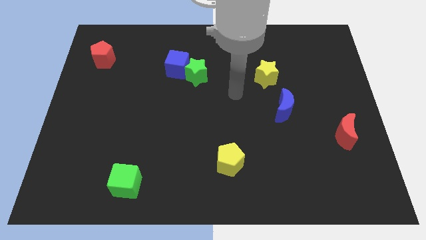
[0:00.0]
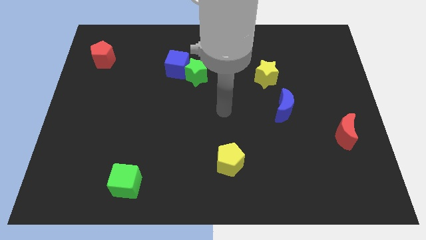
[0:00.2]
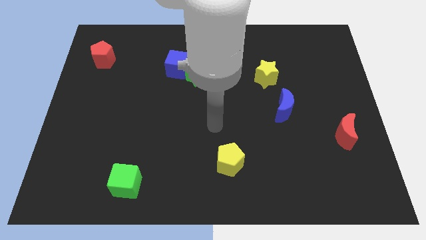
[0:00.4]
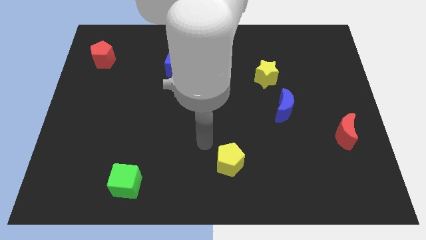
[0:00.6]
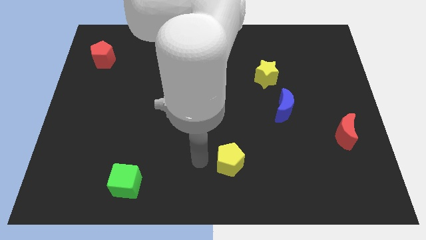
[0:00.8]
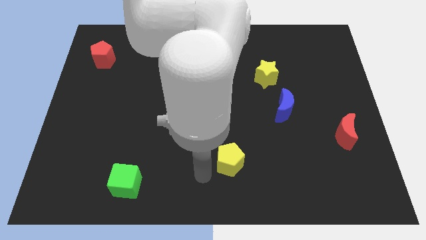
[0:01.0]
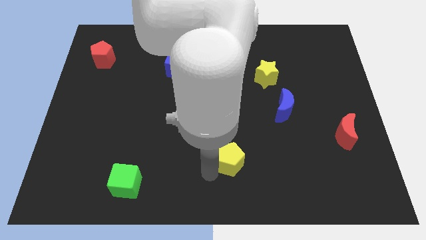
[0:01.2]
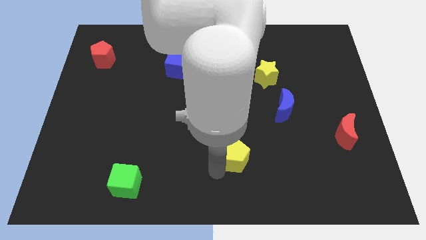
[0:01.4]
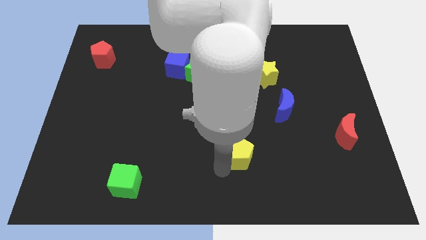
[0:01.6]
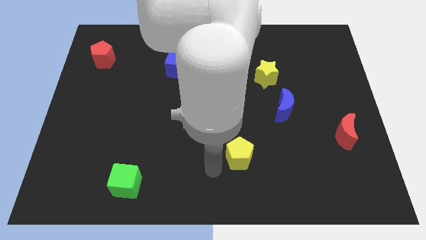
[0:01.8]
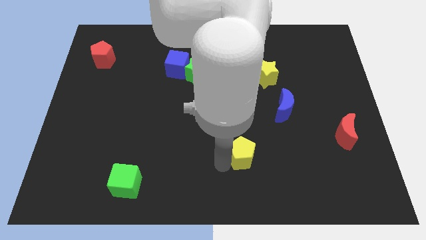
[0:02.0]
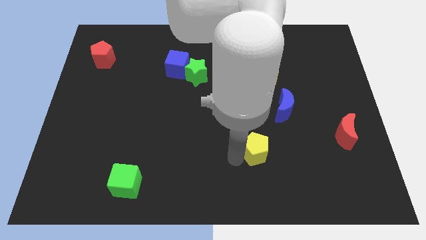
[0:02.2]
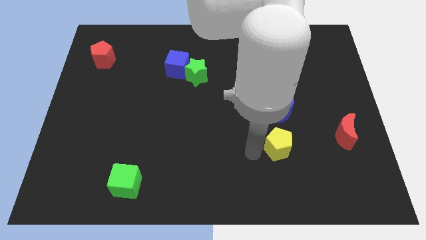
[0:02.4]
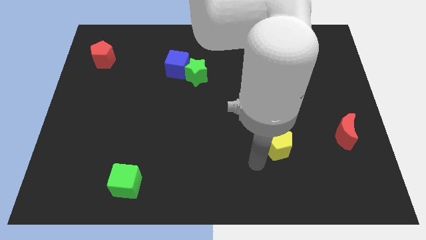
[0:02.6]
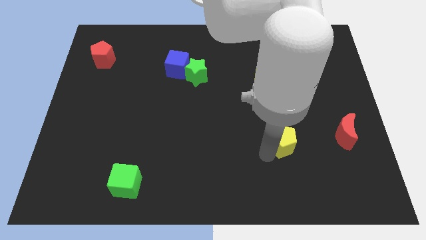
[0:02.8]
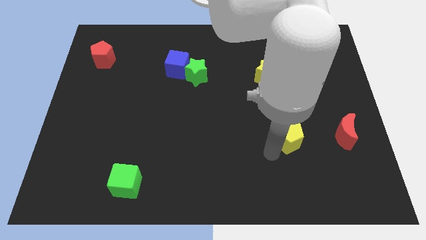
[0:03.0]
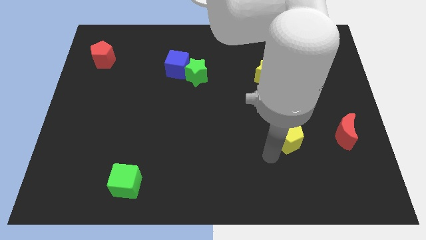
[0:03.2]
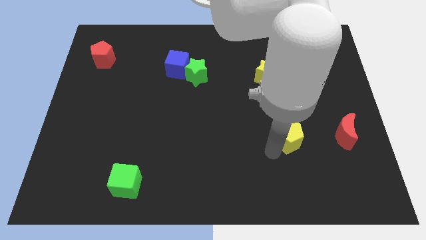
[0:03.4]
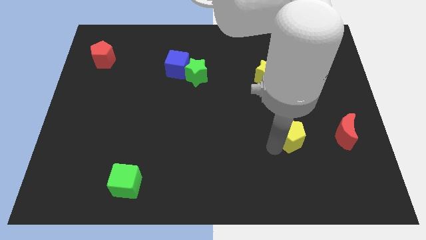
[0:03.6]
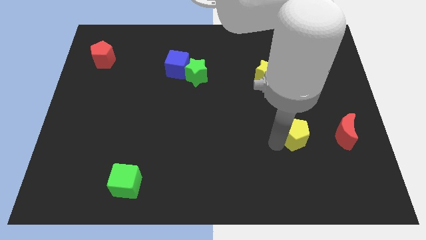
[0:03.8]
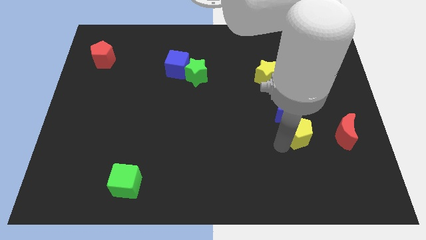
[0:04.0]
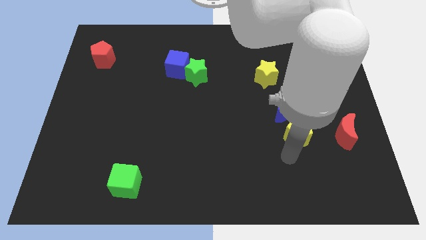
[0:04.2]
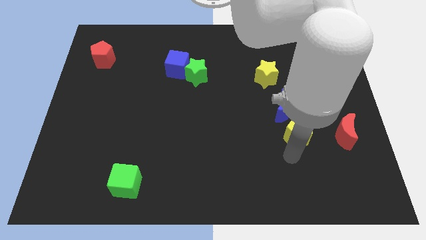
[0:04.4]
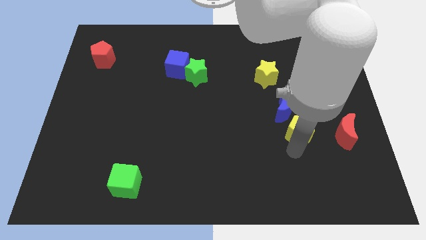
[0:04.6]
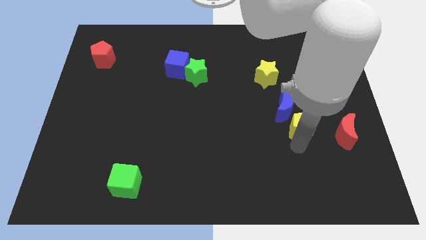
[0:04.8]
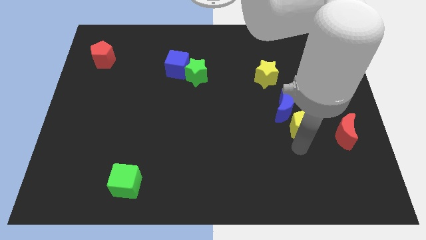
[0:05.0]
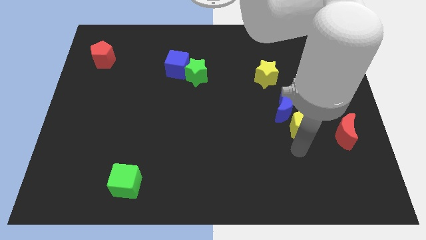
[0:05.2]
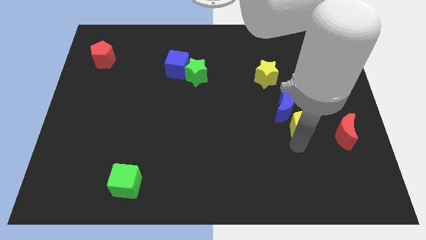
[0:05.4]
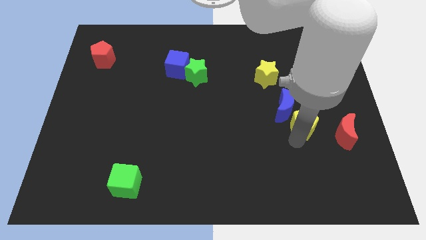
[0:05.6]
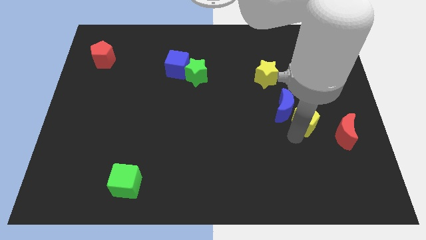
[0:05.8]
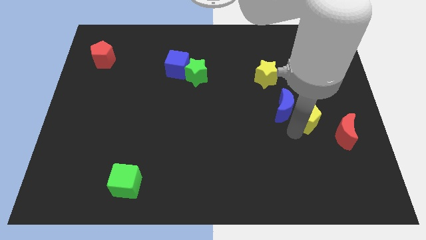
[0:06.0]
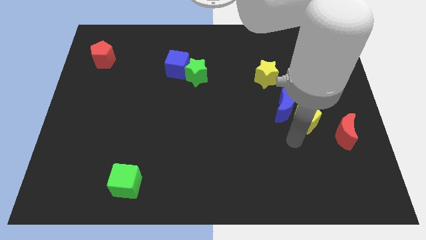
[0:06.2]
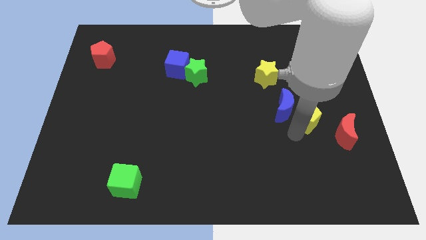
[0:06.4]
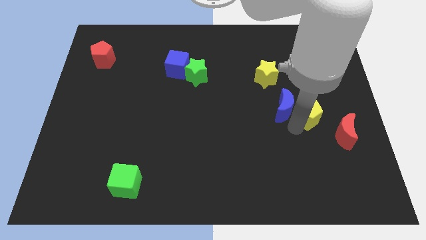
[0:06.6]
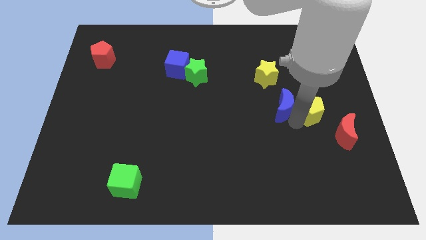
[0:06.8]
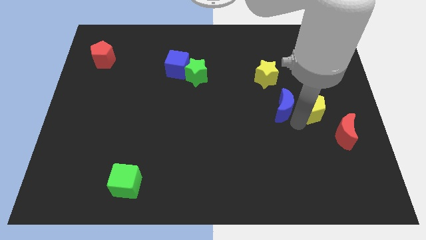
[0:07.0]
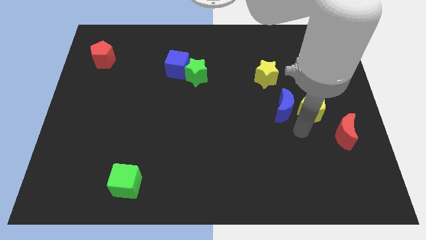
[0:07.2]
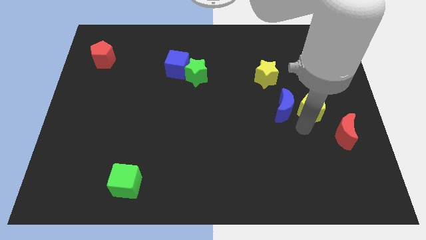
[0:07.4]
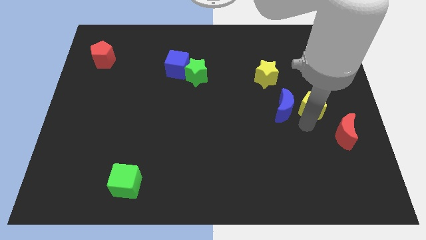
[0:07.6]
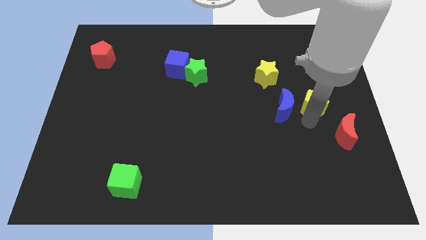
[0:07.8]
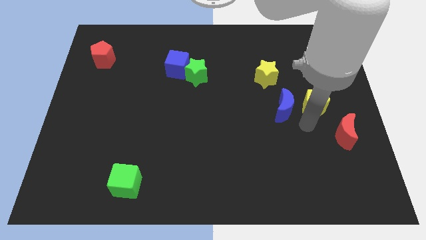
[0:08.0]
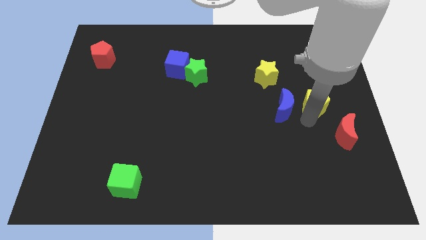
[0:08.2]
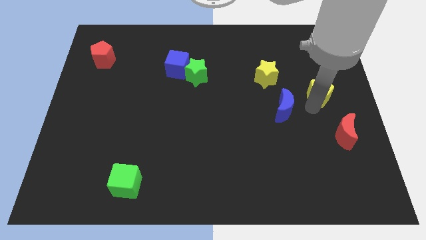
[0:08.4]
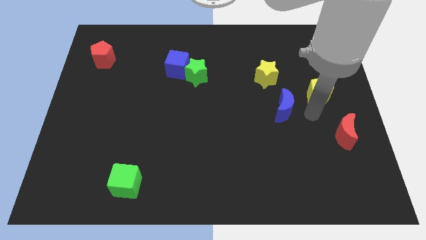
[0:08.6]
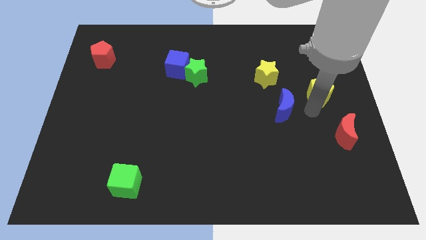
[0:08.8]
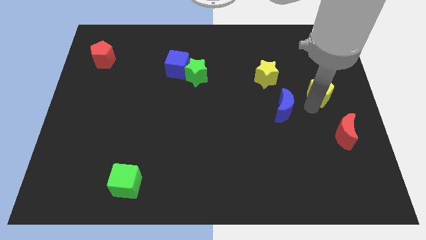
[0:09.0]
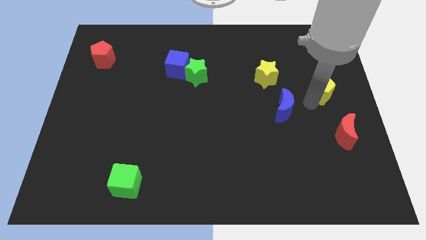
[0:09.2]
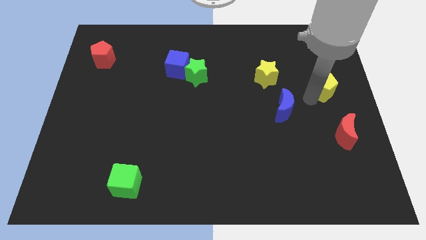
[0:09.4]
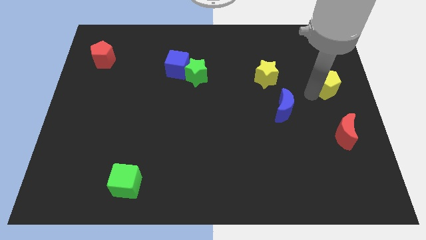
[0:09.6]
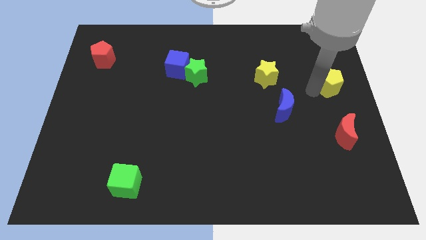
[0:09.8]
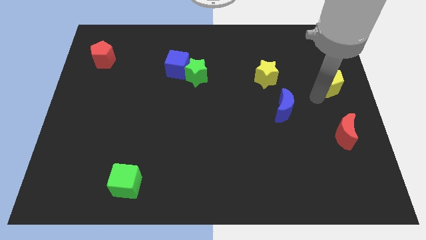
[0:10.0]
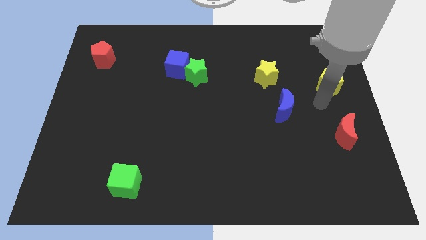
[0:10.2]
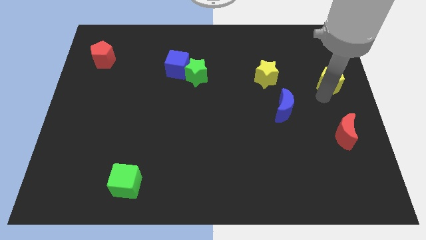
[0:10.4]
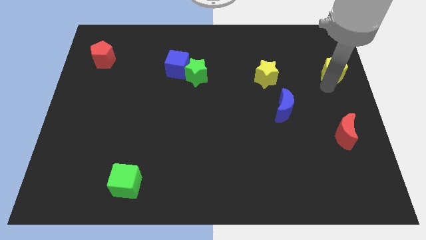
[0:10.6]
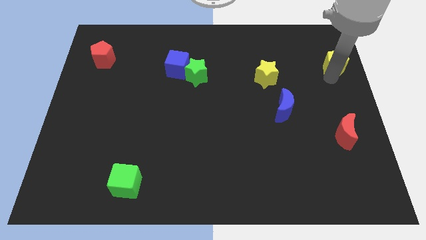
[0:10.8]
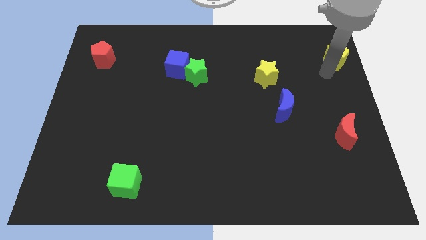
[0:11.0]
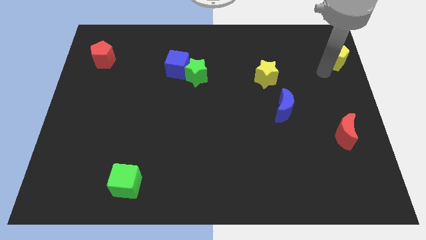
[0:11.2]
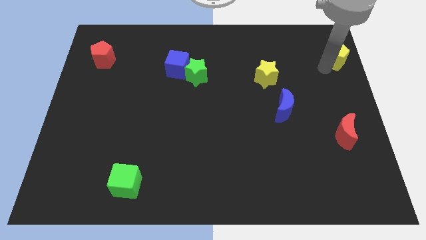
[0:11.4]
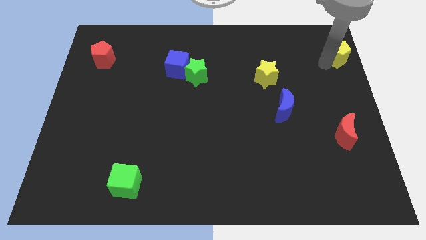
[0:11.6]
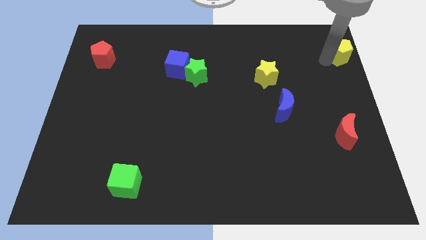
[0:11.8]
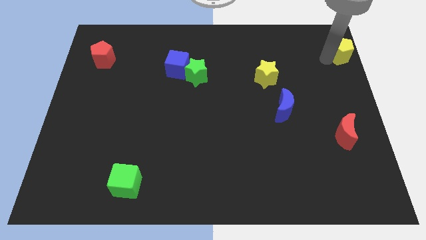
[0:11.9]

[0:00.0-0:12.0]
move the yellow pentagon to the top right

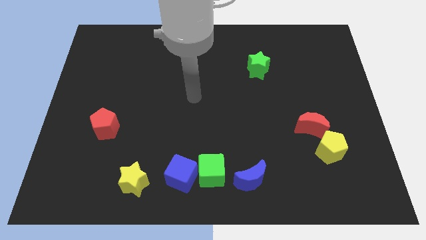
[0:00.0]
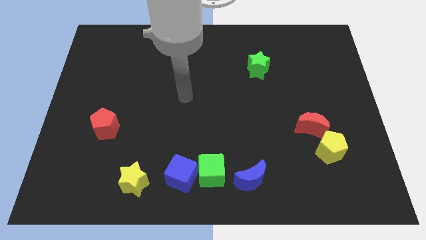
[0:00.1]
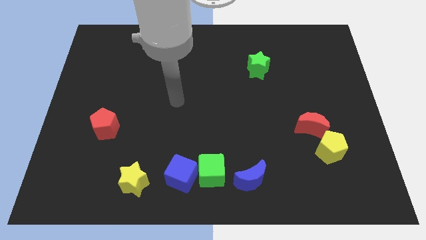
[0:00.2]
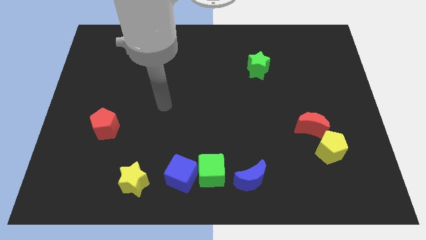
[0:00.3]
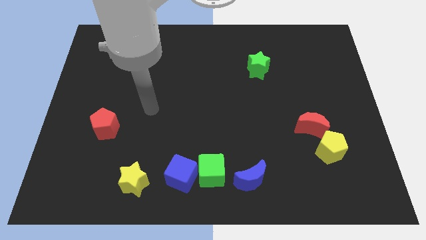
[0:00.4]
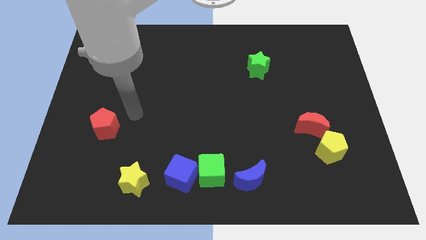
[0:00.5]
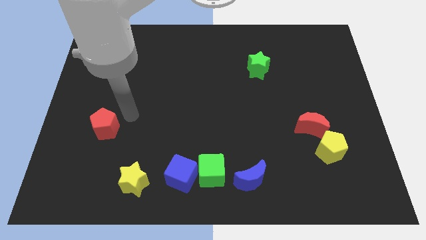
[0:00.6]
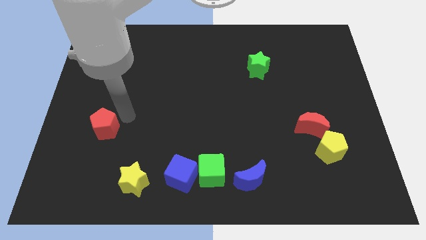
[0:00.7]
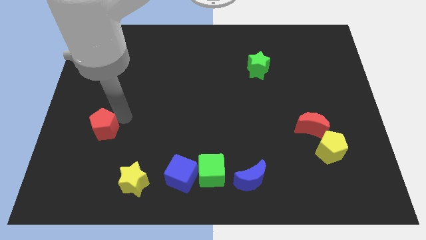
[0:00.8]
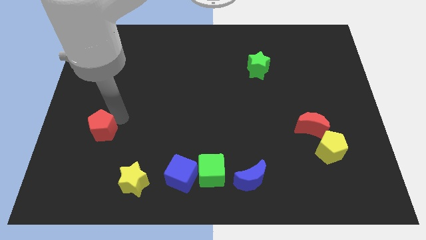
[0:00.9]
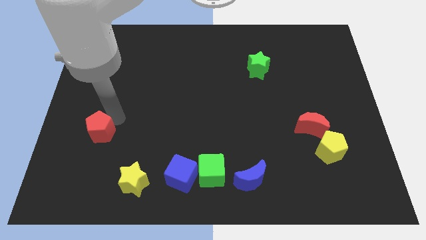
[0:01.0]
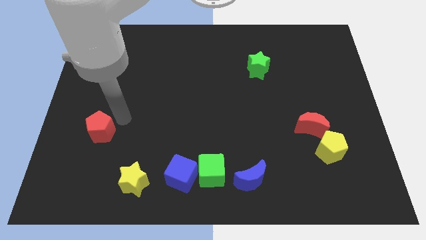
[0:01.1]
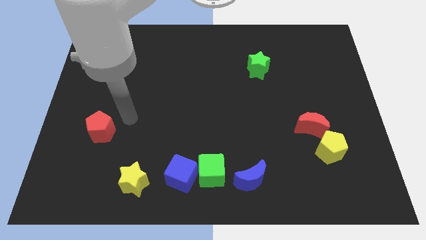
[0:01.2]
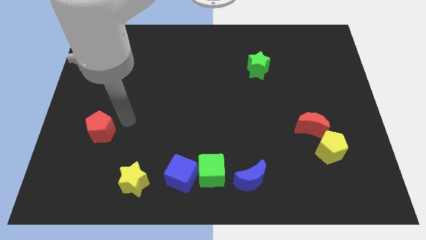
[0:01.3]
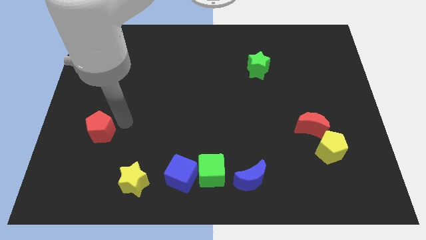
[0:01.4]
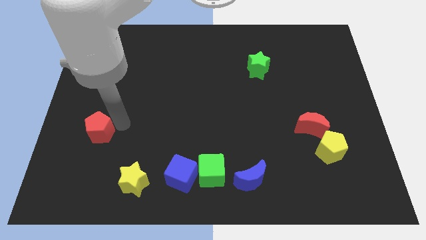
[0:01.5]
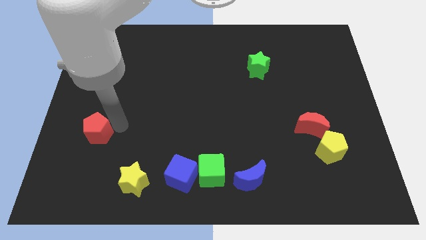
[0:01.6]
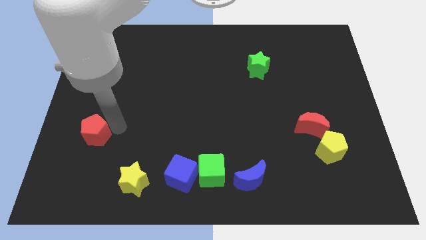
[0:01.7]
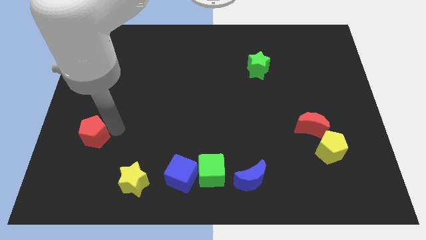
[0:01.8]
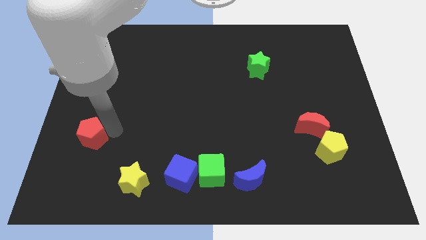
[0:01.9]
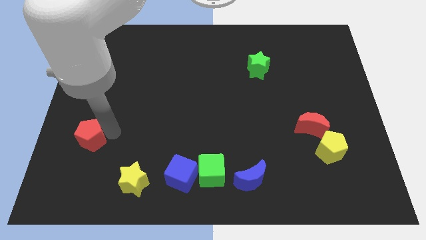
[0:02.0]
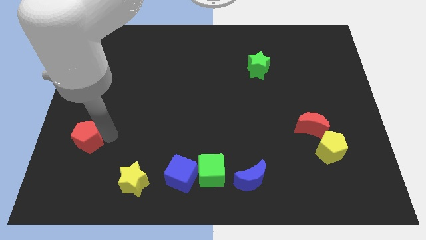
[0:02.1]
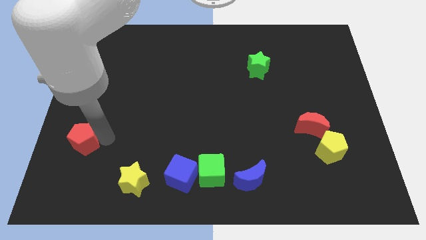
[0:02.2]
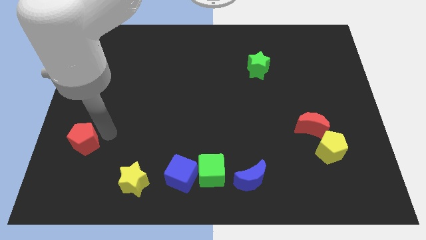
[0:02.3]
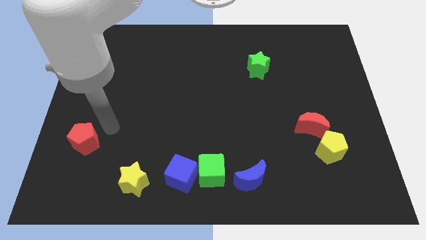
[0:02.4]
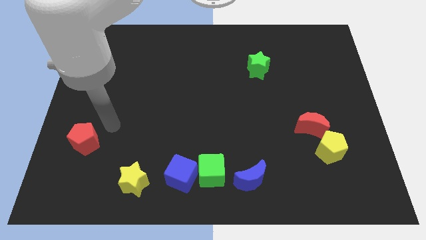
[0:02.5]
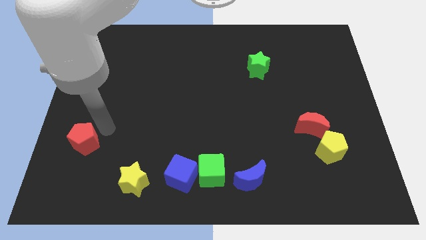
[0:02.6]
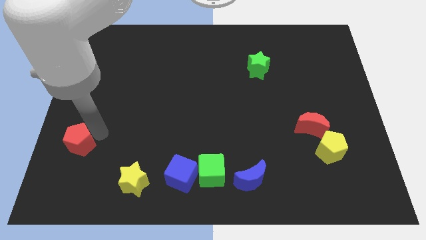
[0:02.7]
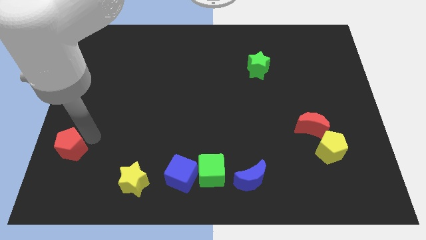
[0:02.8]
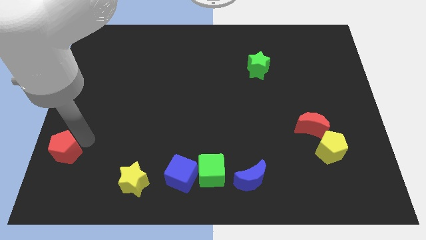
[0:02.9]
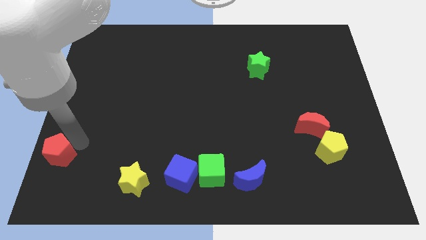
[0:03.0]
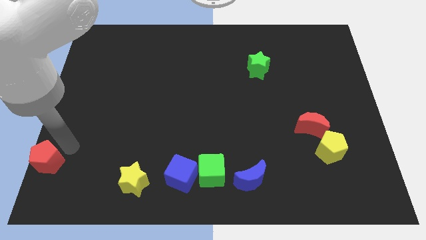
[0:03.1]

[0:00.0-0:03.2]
put the red pentagon to the bottom left
